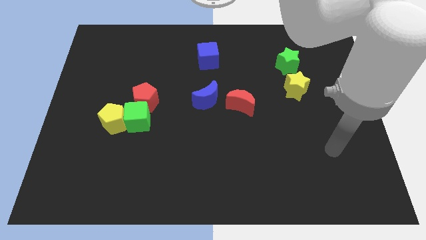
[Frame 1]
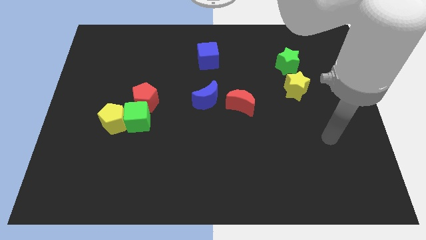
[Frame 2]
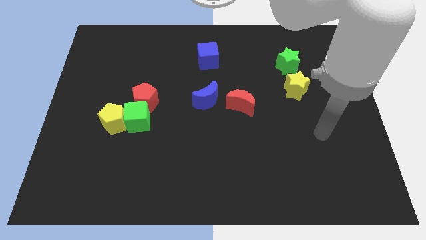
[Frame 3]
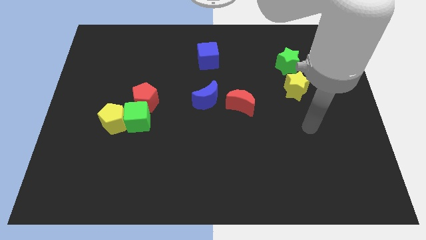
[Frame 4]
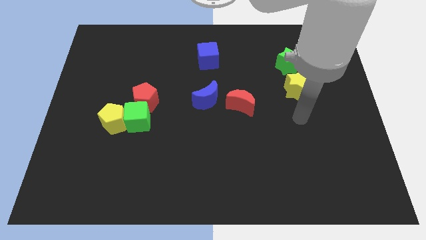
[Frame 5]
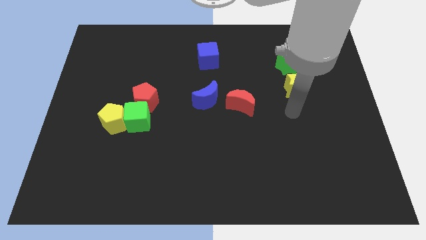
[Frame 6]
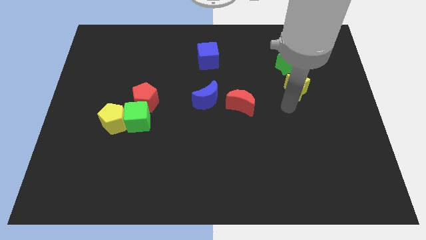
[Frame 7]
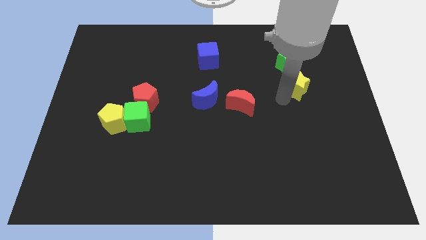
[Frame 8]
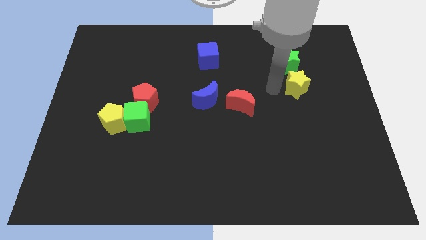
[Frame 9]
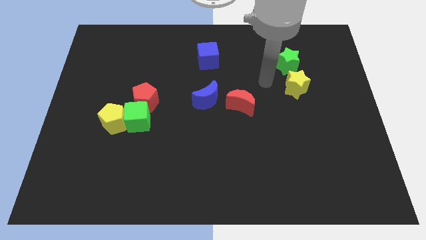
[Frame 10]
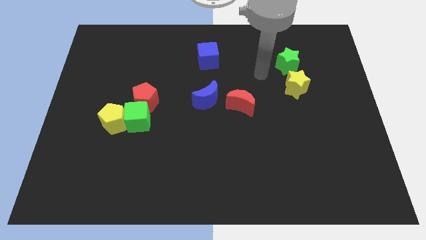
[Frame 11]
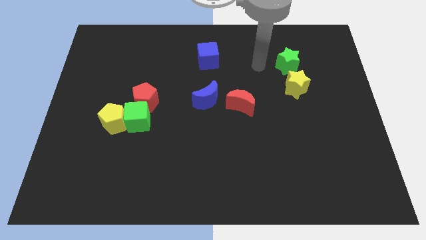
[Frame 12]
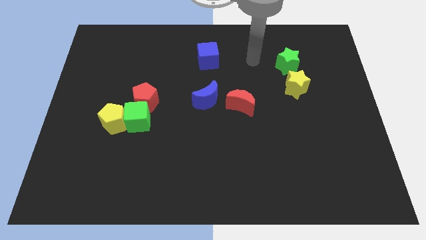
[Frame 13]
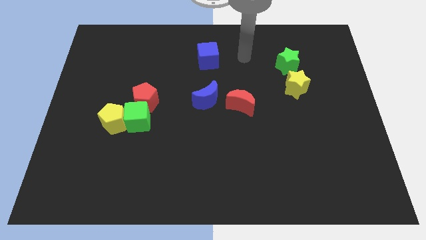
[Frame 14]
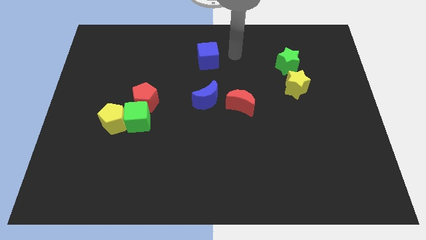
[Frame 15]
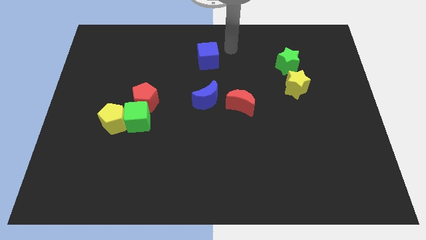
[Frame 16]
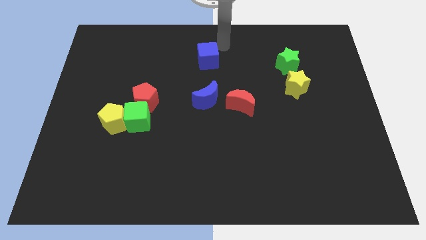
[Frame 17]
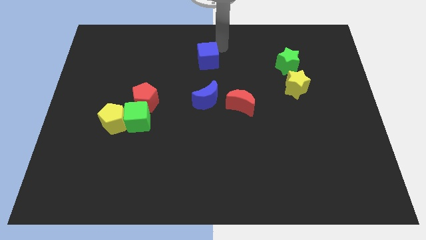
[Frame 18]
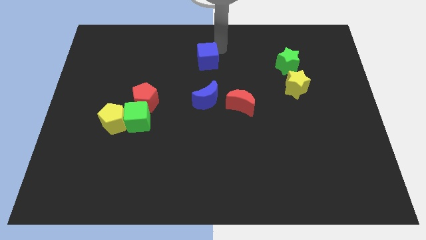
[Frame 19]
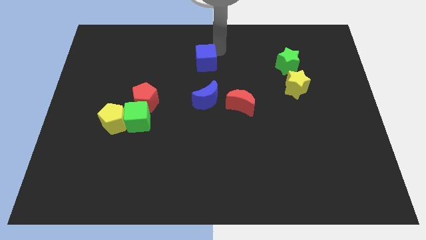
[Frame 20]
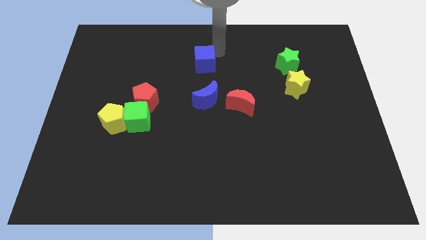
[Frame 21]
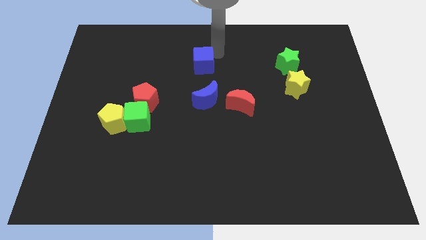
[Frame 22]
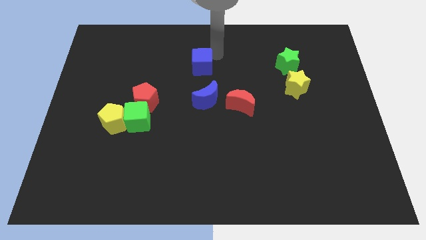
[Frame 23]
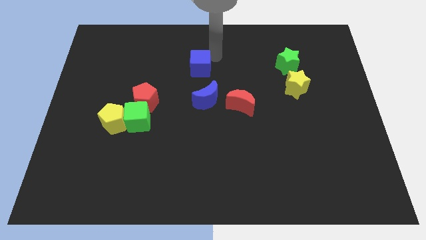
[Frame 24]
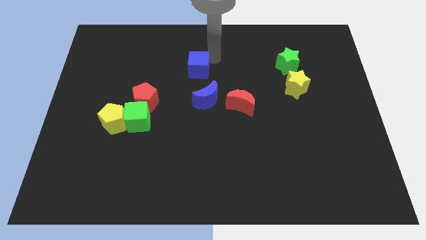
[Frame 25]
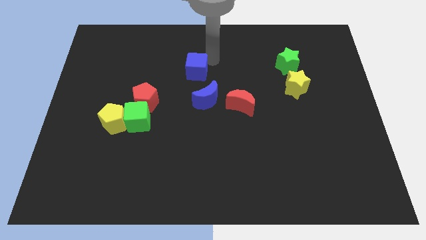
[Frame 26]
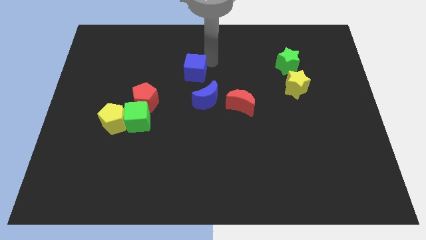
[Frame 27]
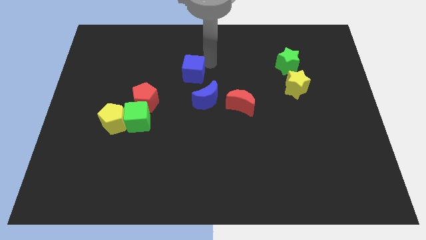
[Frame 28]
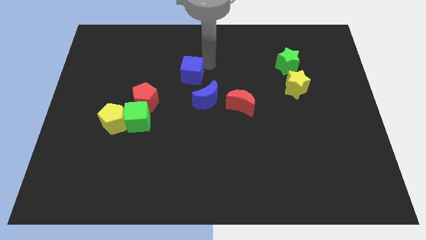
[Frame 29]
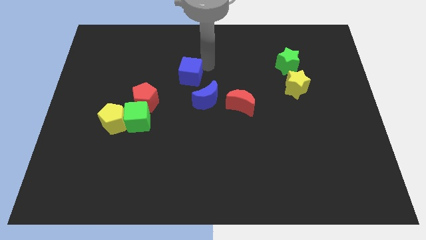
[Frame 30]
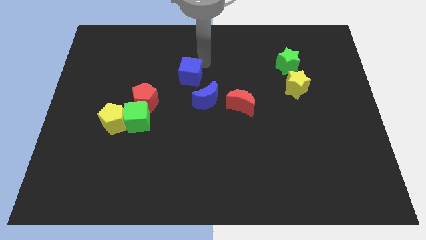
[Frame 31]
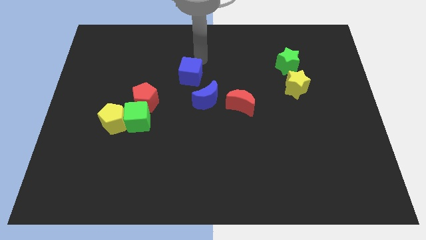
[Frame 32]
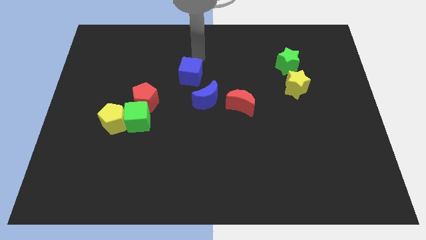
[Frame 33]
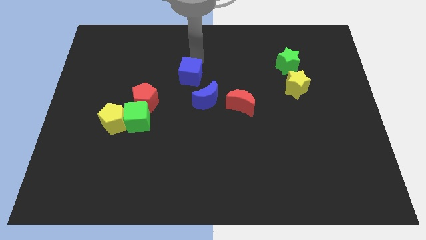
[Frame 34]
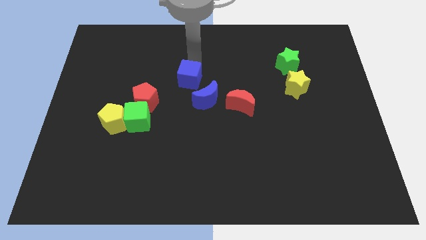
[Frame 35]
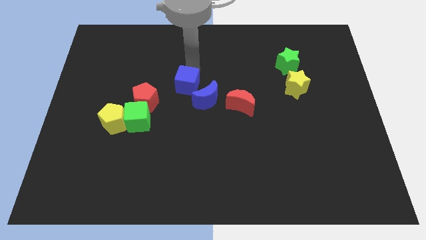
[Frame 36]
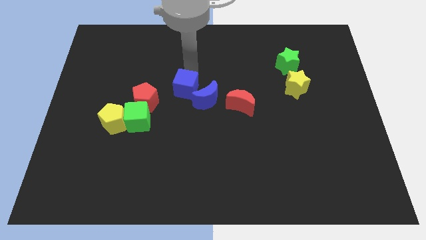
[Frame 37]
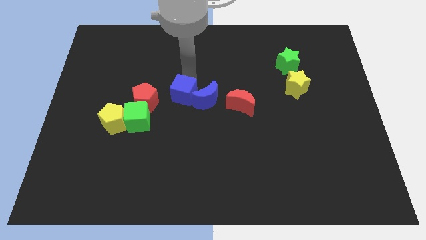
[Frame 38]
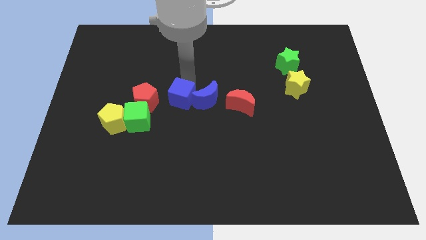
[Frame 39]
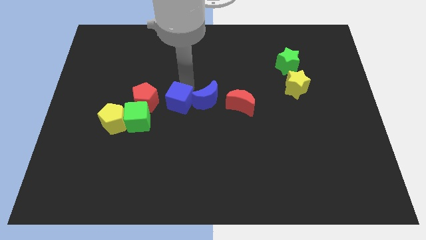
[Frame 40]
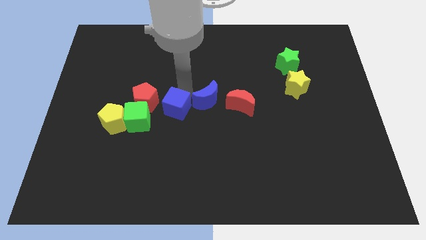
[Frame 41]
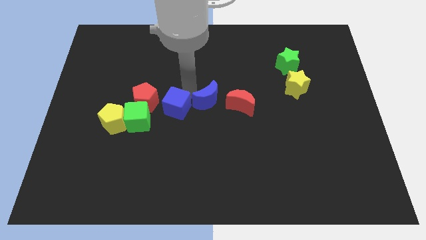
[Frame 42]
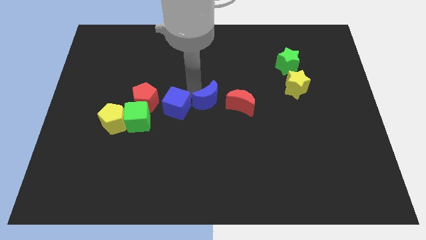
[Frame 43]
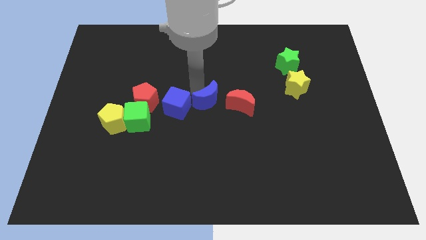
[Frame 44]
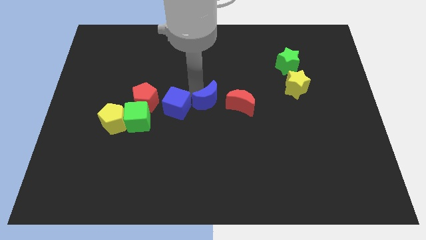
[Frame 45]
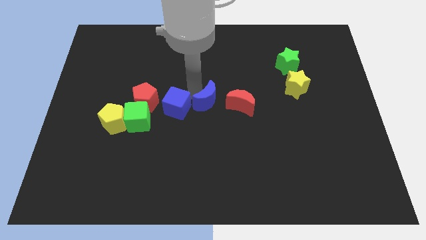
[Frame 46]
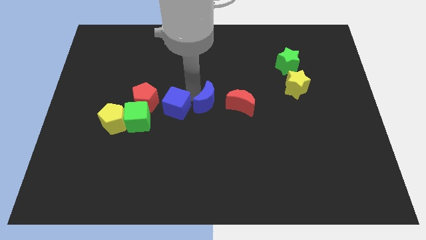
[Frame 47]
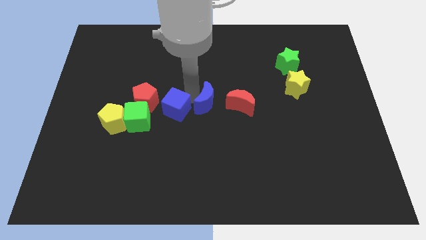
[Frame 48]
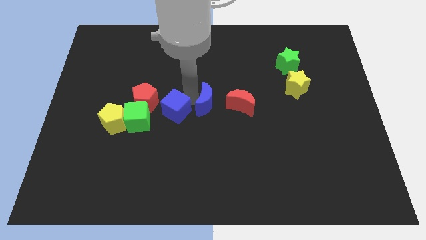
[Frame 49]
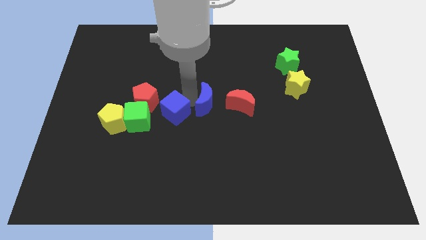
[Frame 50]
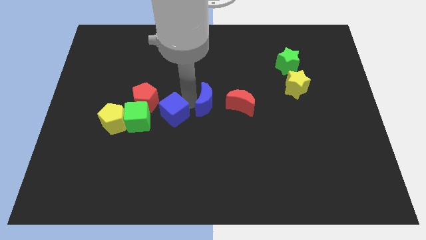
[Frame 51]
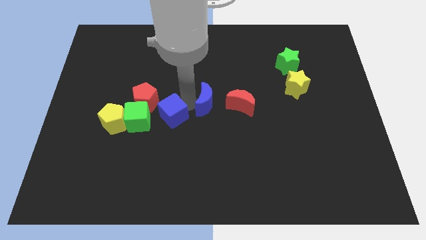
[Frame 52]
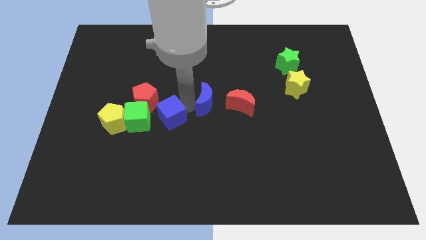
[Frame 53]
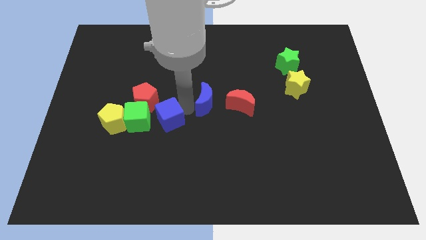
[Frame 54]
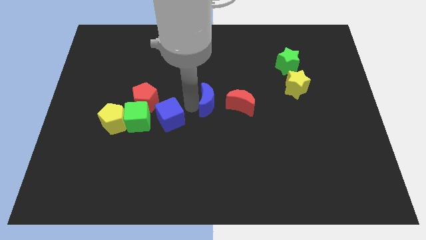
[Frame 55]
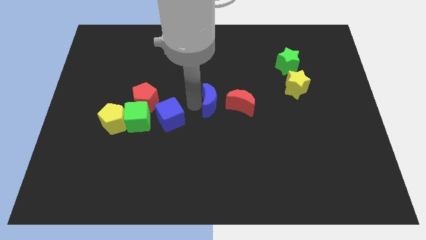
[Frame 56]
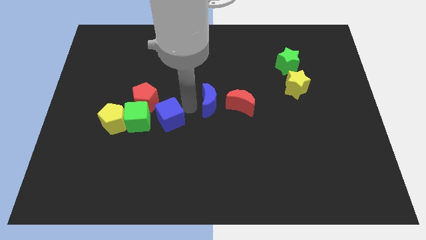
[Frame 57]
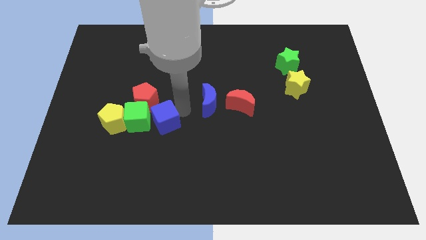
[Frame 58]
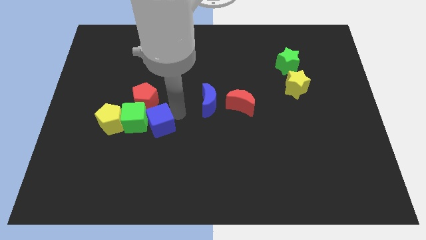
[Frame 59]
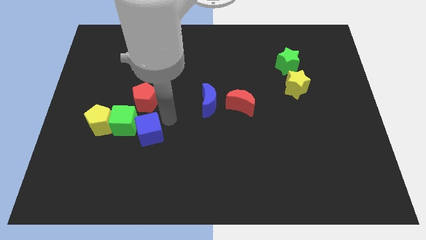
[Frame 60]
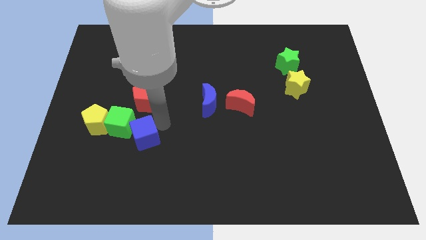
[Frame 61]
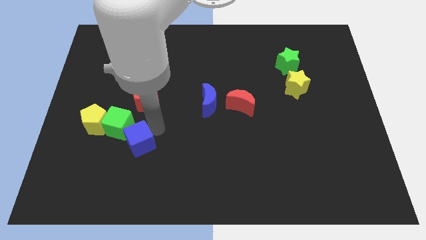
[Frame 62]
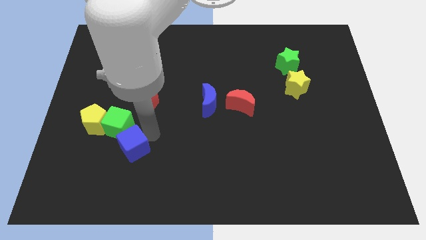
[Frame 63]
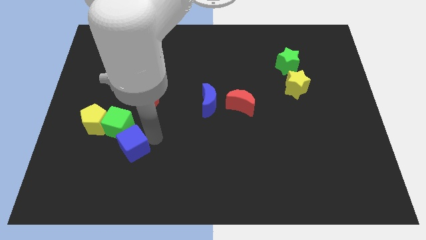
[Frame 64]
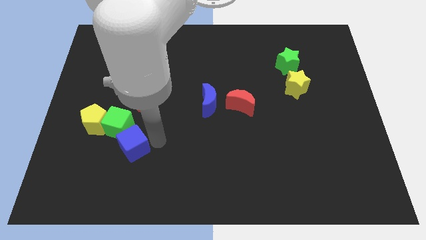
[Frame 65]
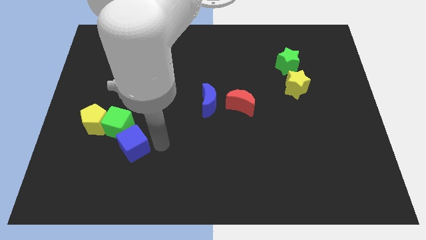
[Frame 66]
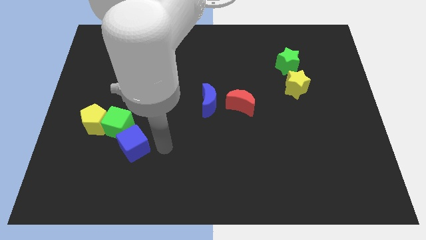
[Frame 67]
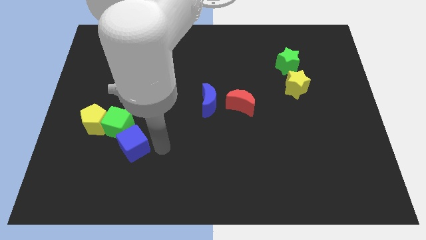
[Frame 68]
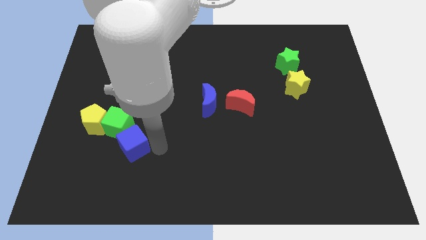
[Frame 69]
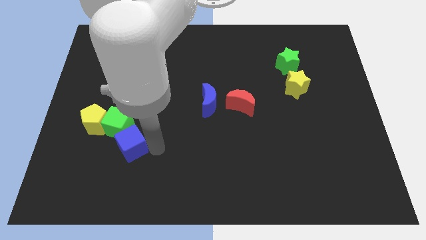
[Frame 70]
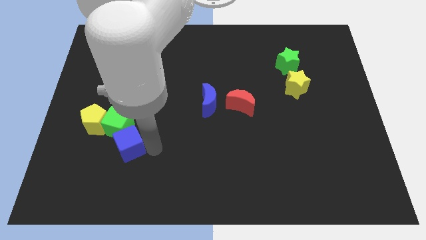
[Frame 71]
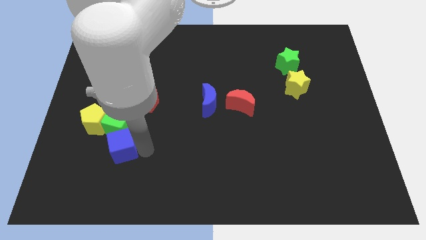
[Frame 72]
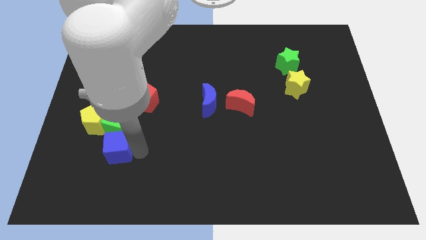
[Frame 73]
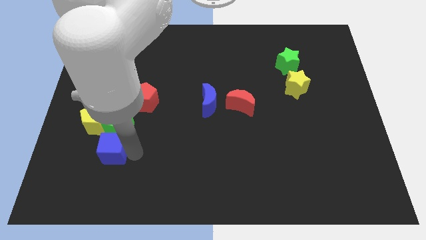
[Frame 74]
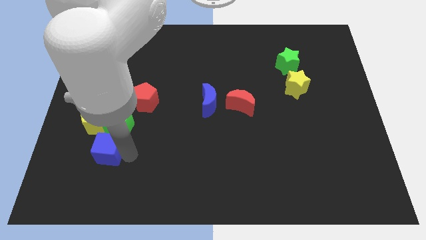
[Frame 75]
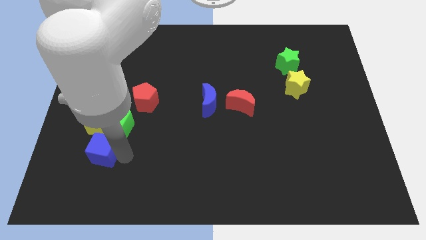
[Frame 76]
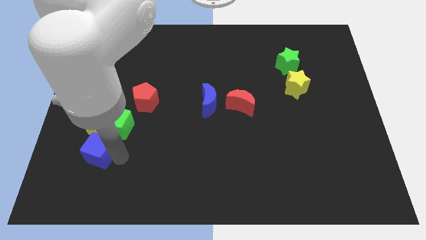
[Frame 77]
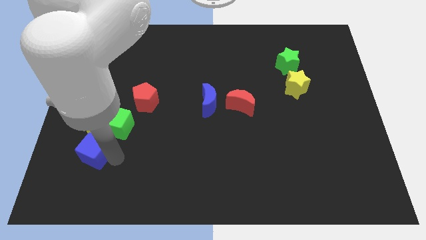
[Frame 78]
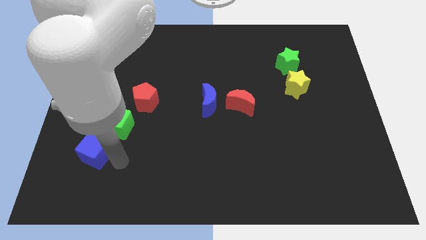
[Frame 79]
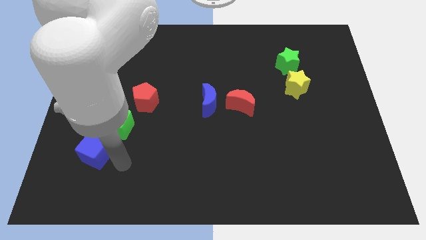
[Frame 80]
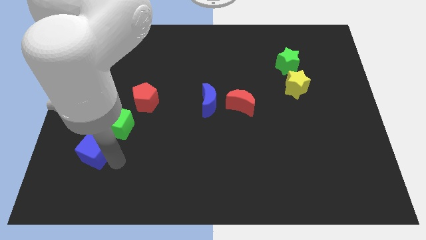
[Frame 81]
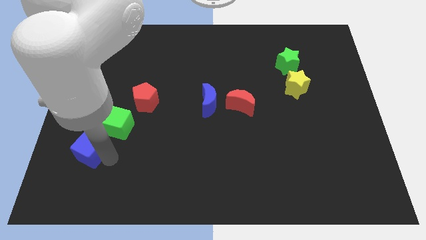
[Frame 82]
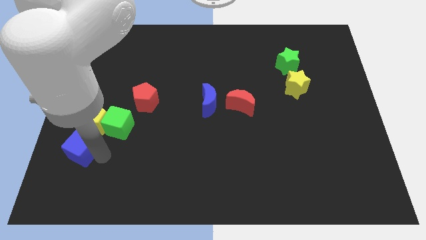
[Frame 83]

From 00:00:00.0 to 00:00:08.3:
push the blue cube to the bottom left side of the yellow pentagon
